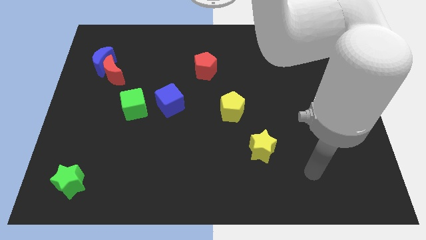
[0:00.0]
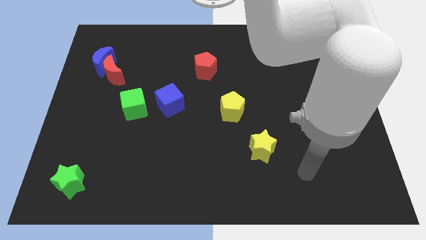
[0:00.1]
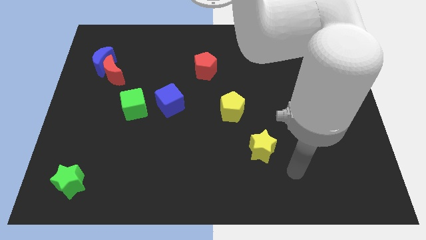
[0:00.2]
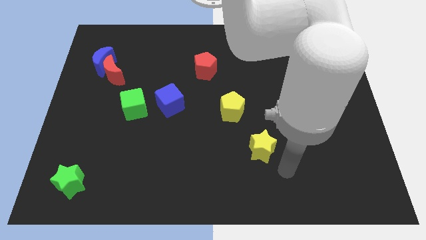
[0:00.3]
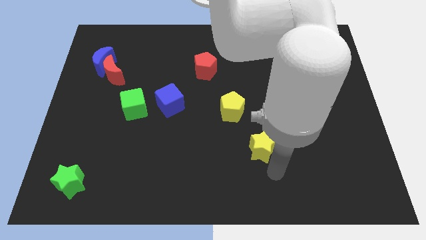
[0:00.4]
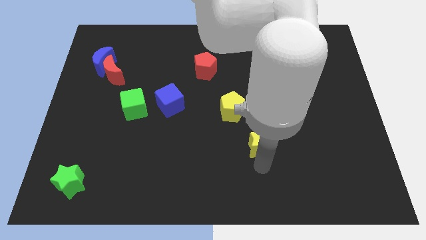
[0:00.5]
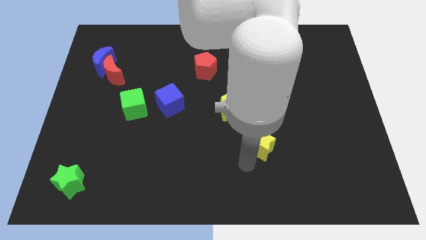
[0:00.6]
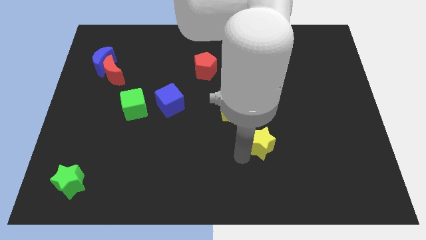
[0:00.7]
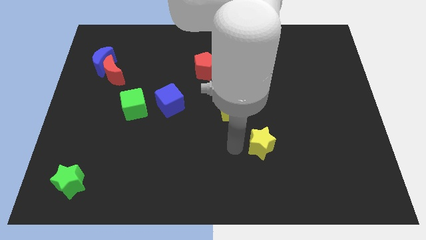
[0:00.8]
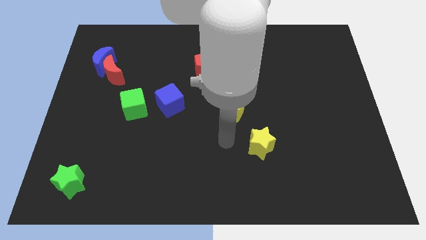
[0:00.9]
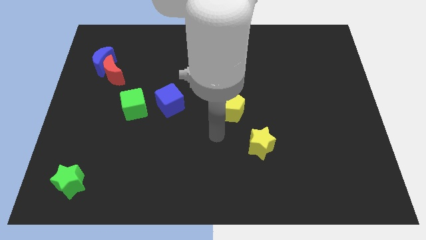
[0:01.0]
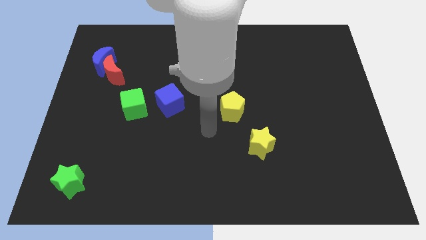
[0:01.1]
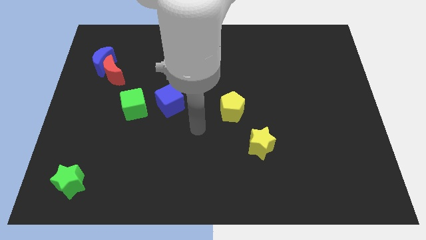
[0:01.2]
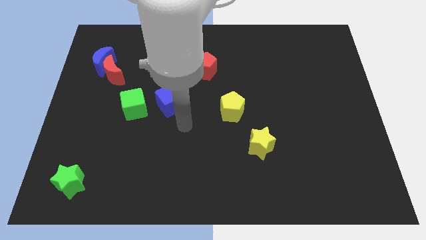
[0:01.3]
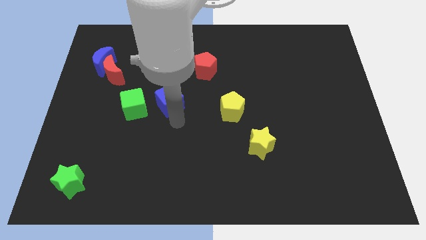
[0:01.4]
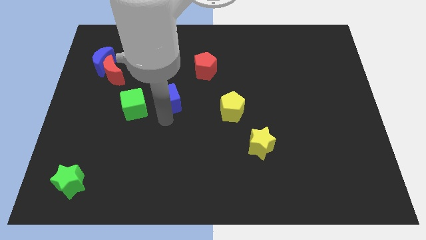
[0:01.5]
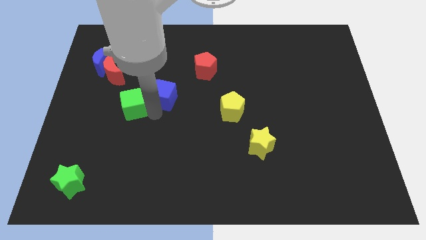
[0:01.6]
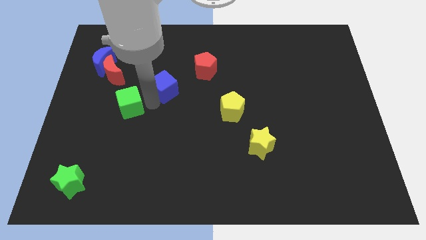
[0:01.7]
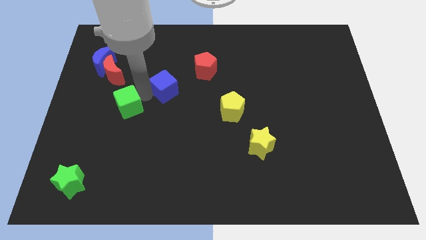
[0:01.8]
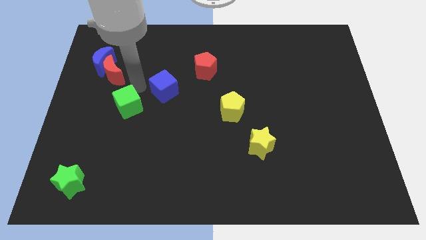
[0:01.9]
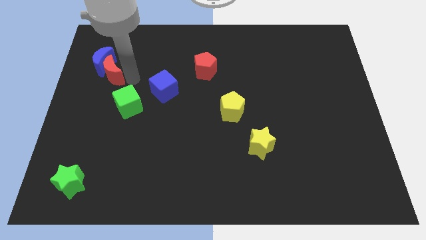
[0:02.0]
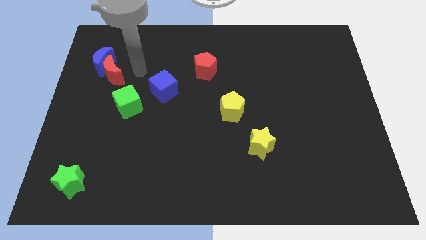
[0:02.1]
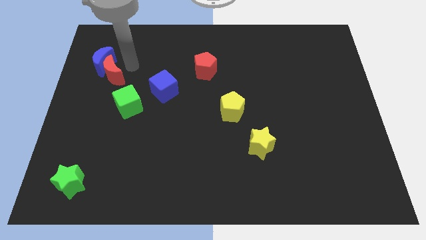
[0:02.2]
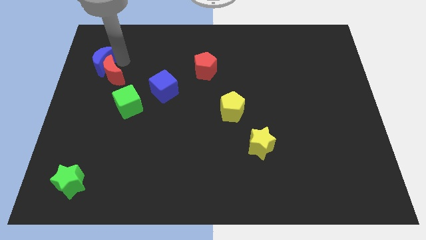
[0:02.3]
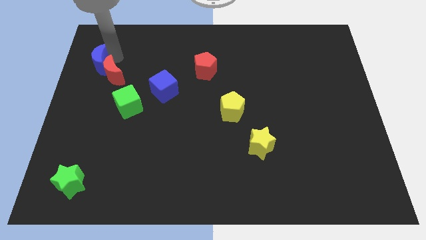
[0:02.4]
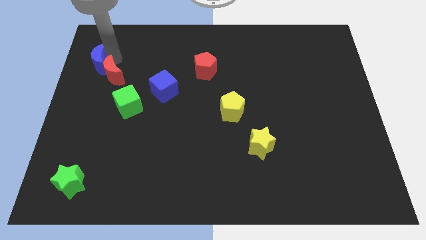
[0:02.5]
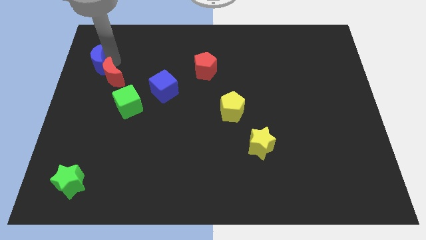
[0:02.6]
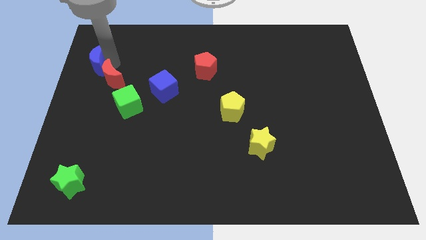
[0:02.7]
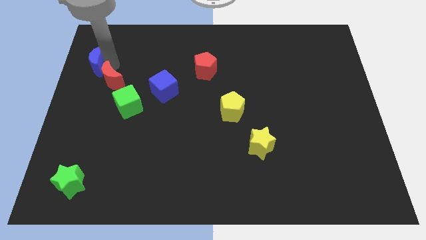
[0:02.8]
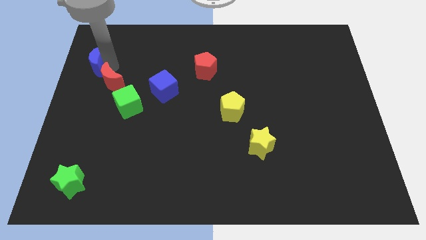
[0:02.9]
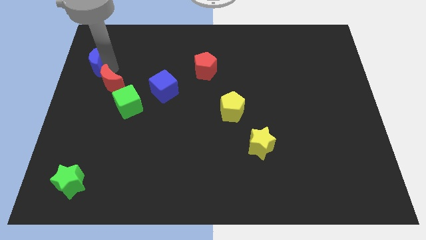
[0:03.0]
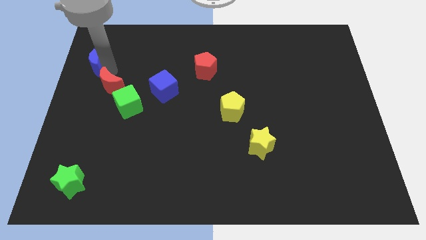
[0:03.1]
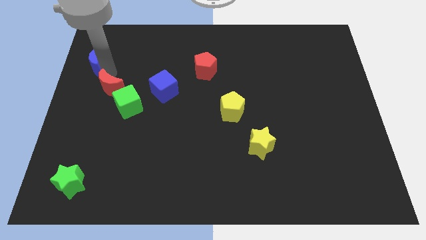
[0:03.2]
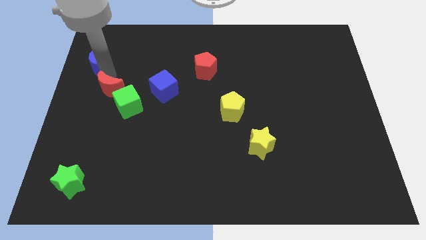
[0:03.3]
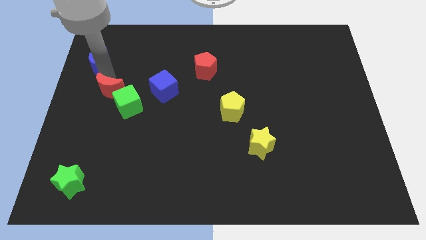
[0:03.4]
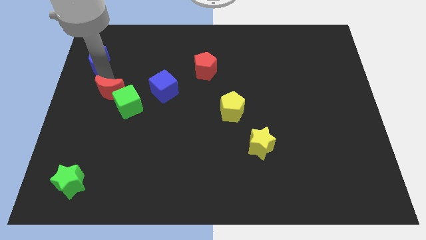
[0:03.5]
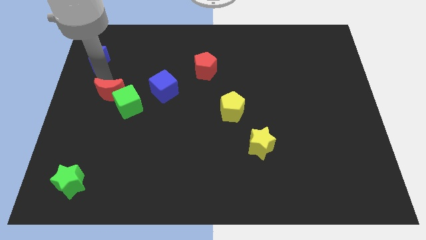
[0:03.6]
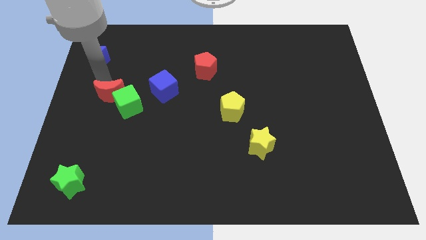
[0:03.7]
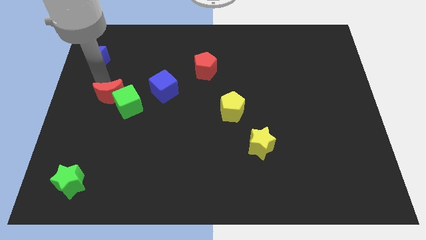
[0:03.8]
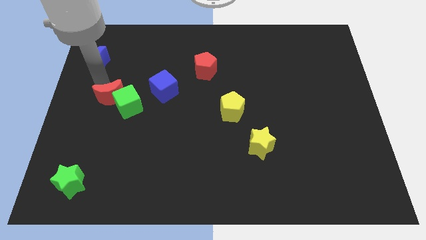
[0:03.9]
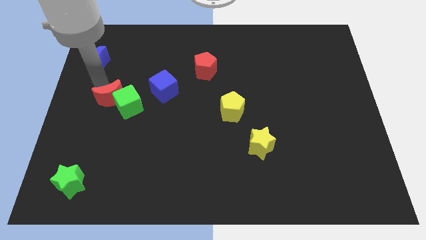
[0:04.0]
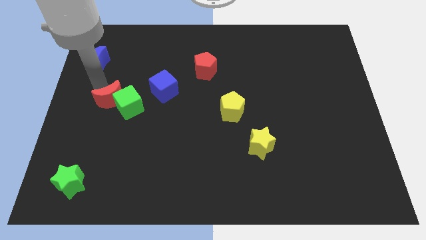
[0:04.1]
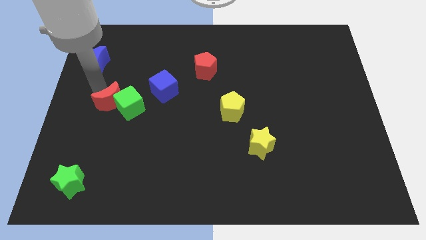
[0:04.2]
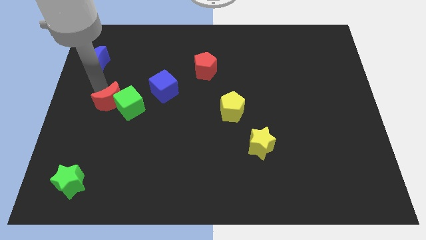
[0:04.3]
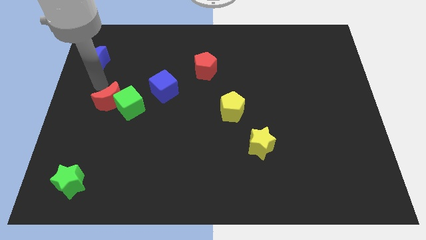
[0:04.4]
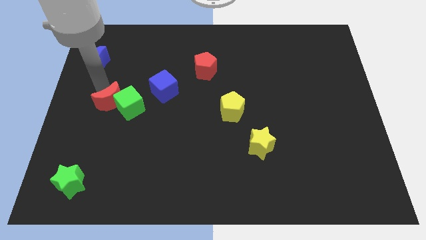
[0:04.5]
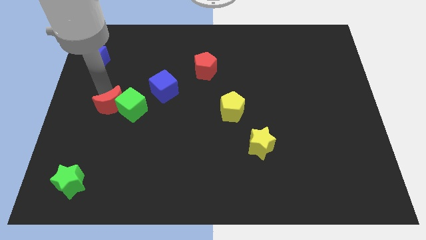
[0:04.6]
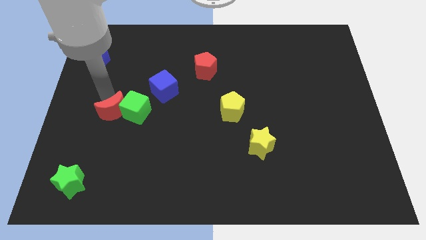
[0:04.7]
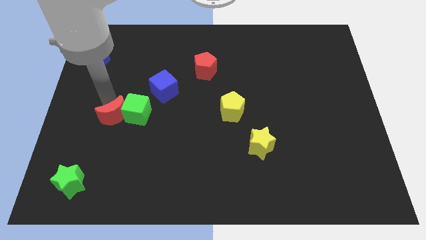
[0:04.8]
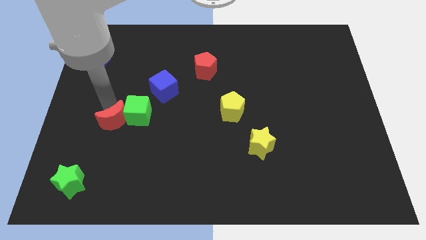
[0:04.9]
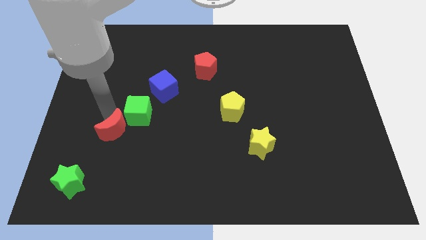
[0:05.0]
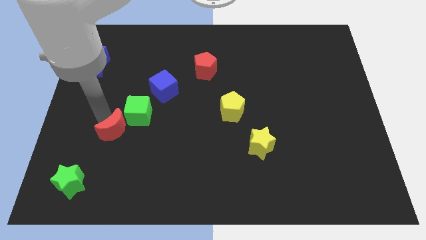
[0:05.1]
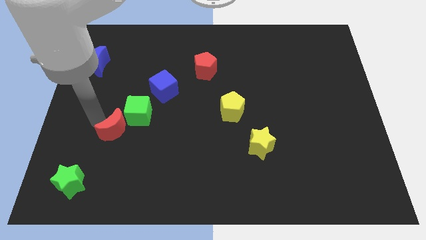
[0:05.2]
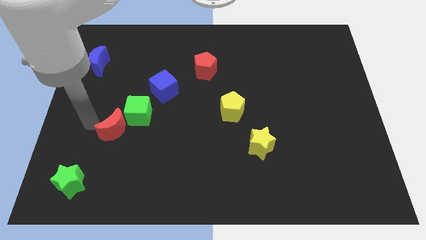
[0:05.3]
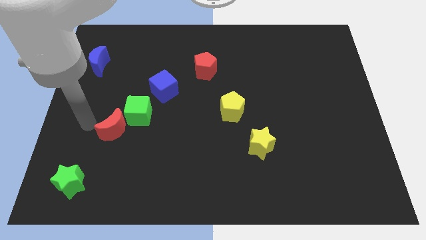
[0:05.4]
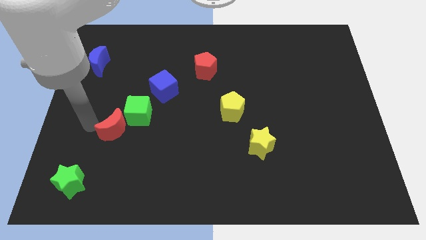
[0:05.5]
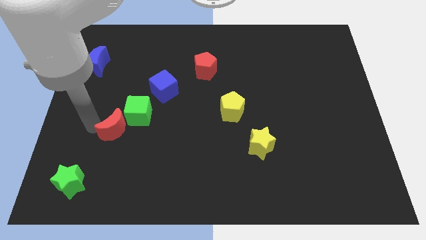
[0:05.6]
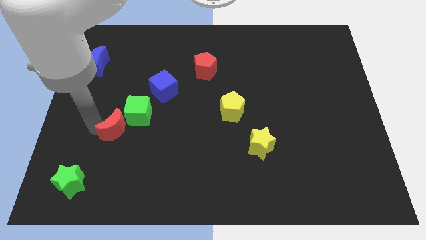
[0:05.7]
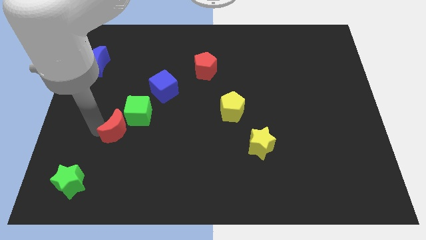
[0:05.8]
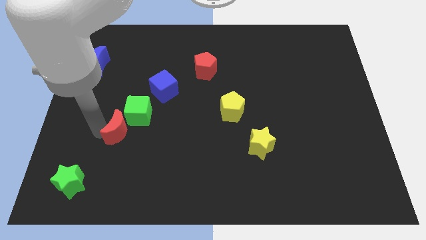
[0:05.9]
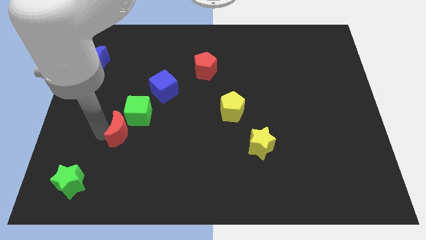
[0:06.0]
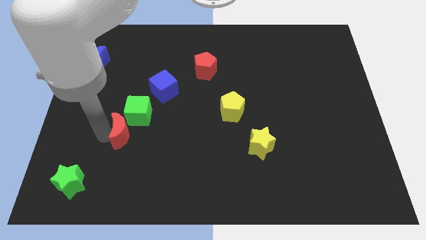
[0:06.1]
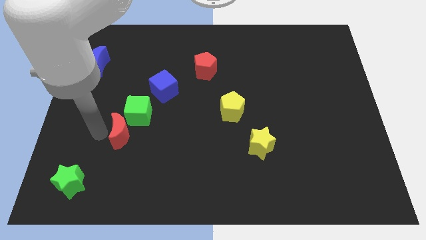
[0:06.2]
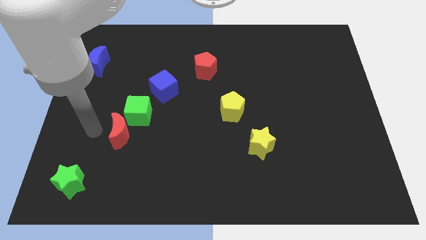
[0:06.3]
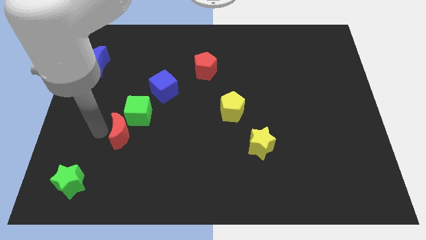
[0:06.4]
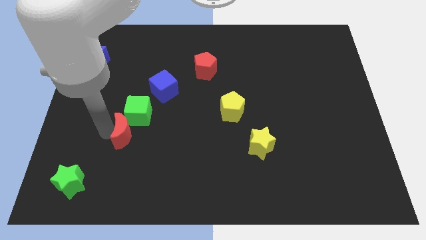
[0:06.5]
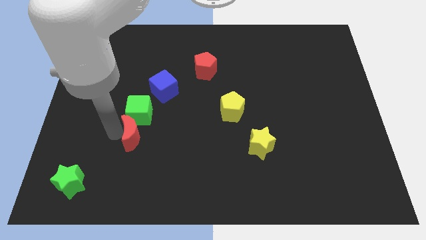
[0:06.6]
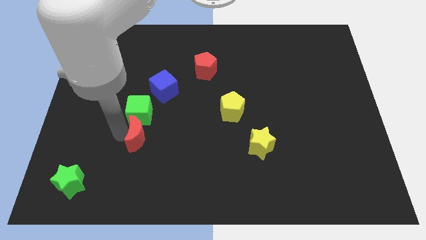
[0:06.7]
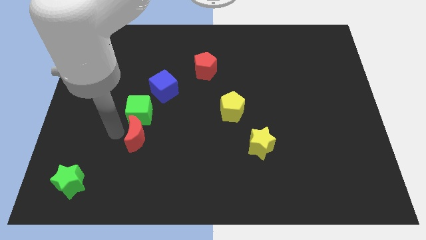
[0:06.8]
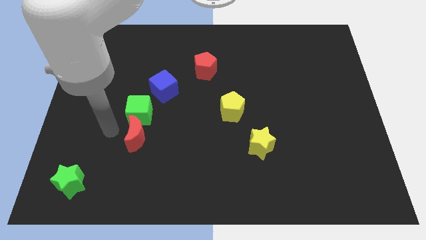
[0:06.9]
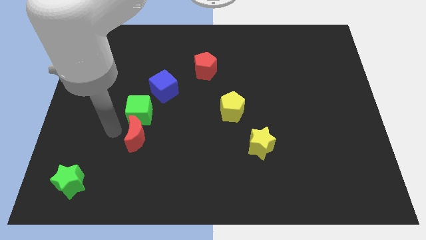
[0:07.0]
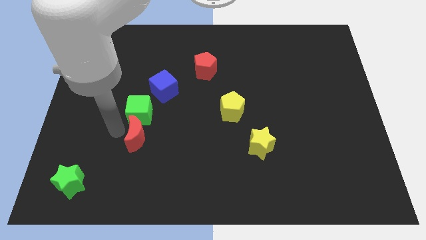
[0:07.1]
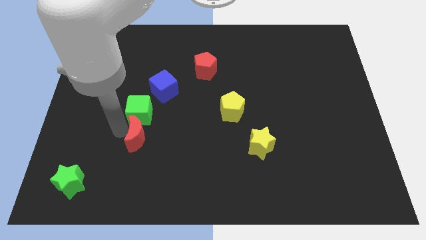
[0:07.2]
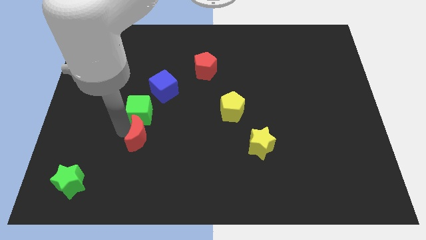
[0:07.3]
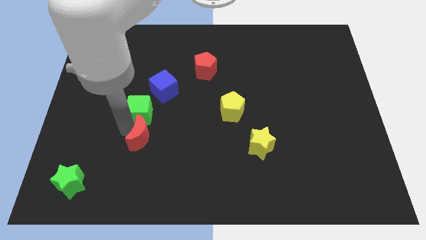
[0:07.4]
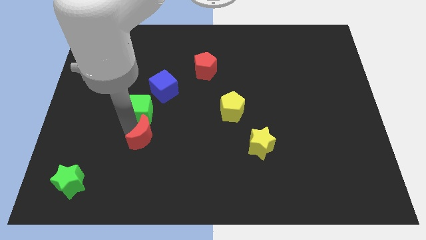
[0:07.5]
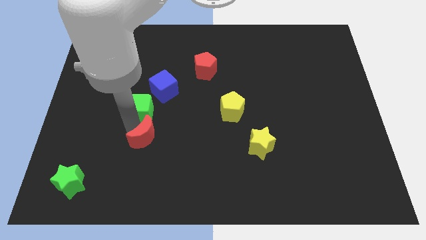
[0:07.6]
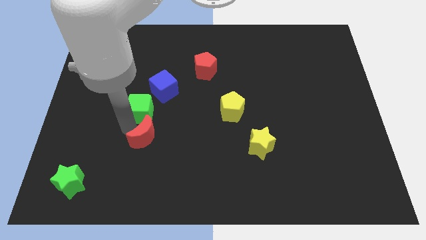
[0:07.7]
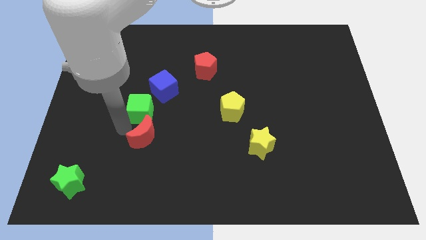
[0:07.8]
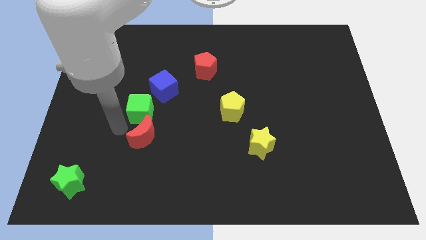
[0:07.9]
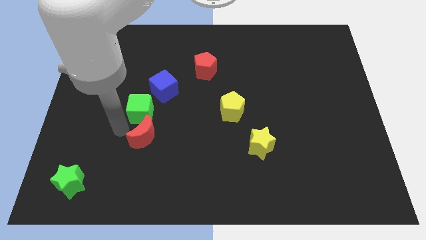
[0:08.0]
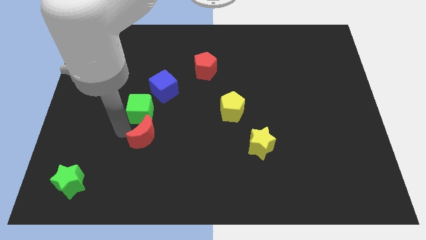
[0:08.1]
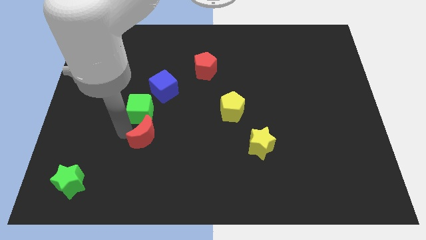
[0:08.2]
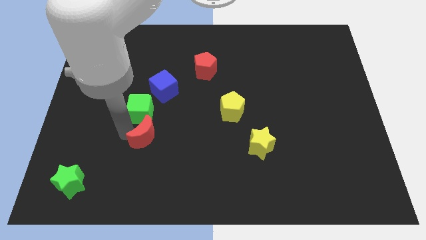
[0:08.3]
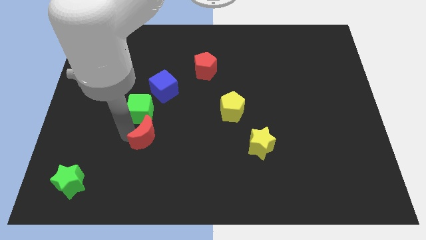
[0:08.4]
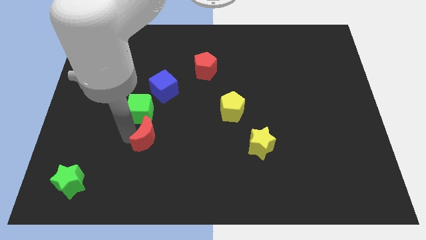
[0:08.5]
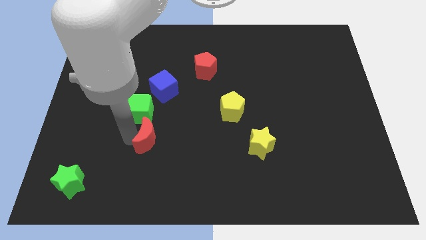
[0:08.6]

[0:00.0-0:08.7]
move the red moon downwards and right diagonally
